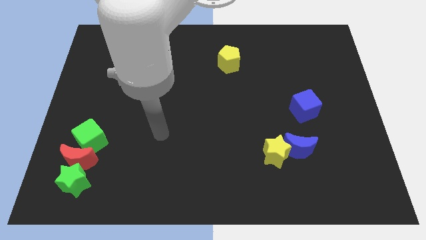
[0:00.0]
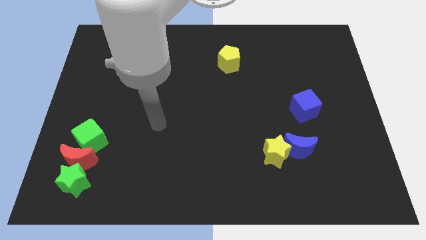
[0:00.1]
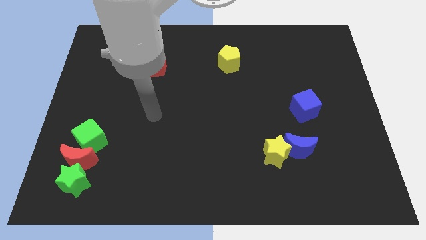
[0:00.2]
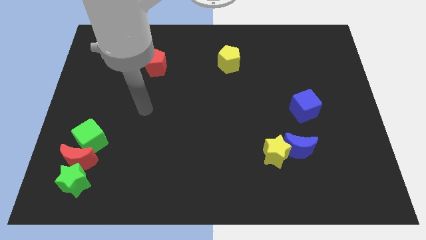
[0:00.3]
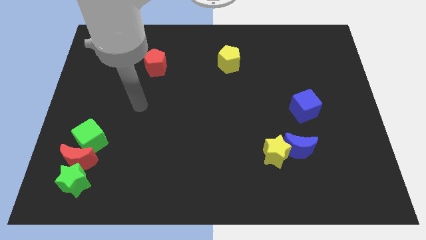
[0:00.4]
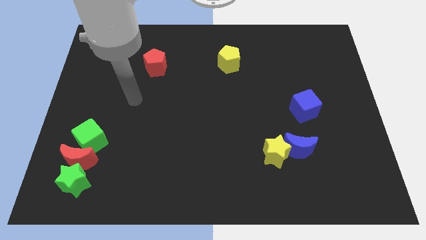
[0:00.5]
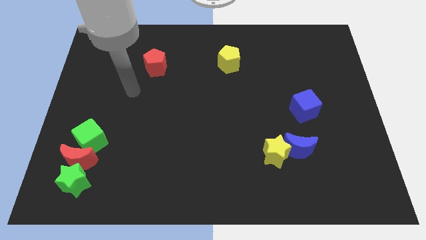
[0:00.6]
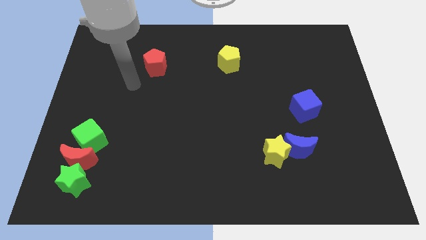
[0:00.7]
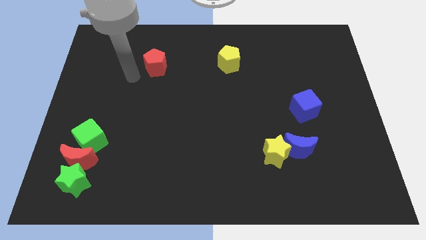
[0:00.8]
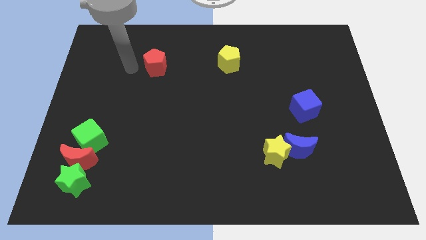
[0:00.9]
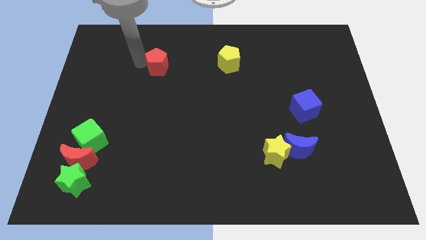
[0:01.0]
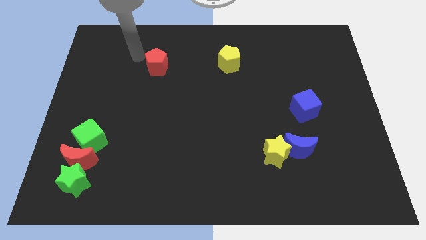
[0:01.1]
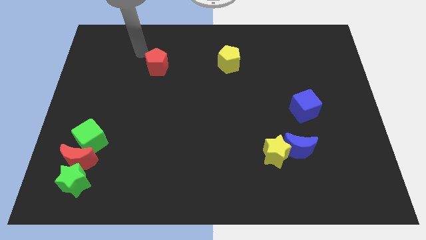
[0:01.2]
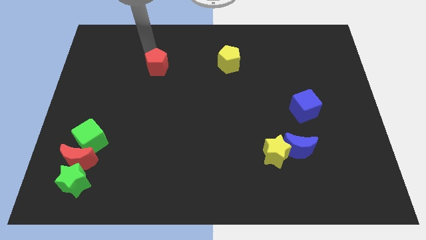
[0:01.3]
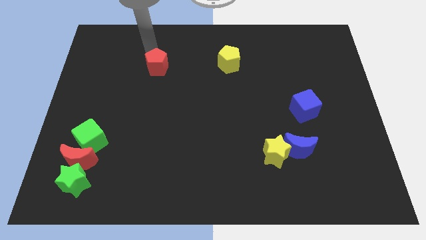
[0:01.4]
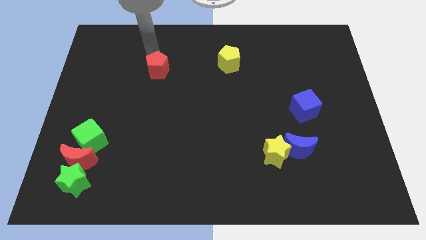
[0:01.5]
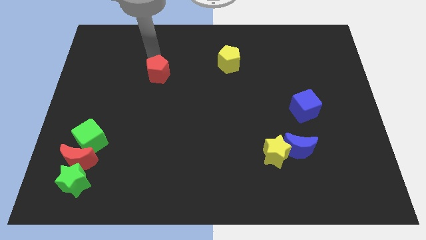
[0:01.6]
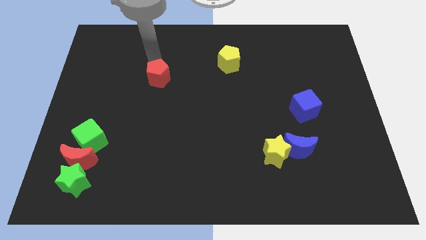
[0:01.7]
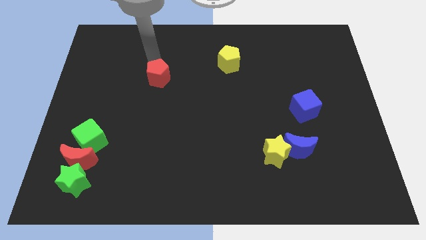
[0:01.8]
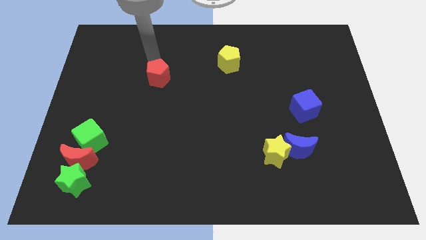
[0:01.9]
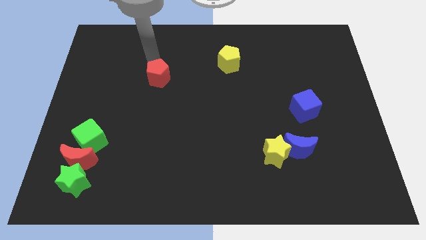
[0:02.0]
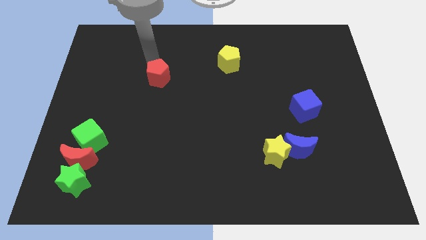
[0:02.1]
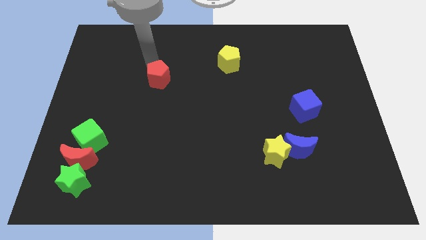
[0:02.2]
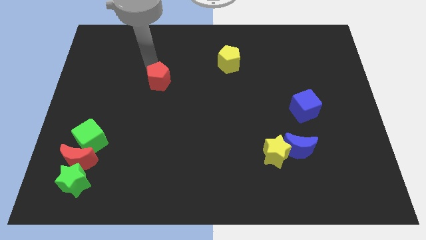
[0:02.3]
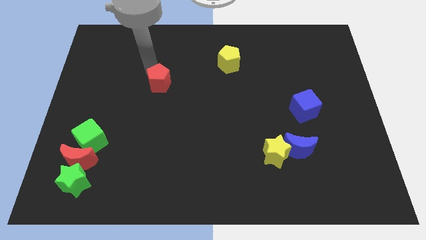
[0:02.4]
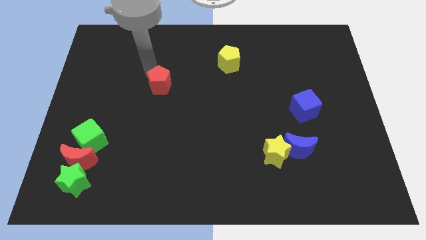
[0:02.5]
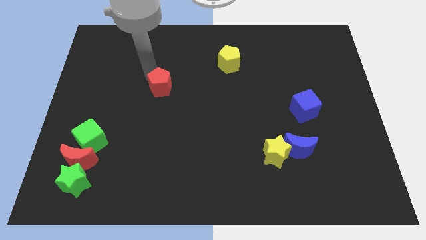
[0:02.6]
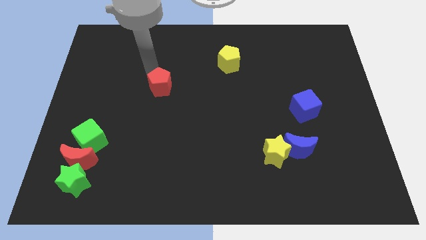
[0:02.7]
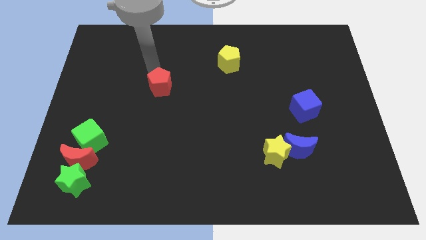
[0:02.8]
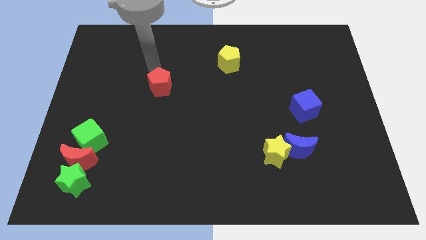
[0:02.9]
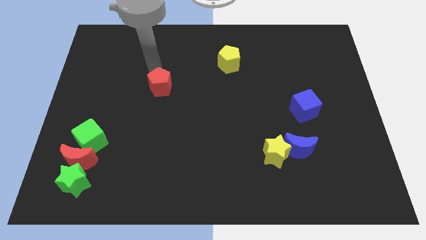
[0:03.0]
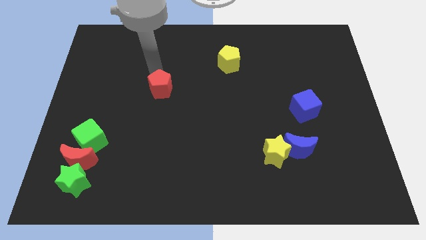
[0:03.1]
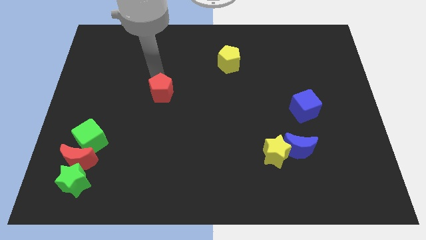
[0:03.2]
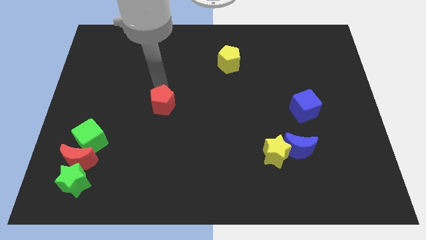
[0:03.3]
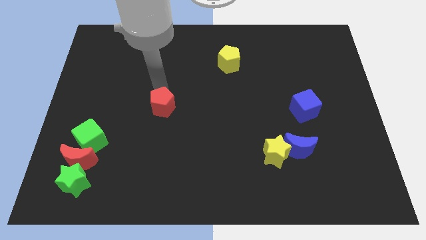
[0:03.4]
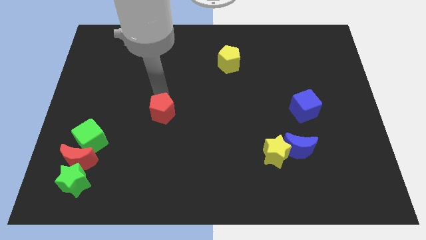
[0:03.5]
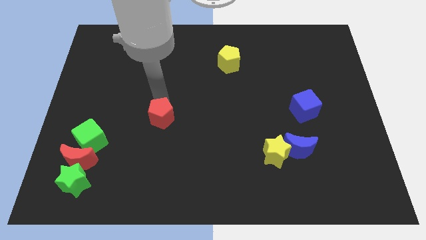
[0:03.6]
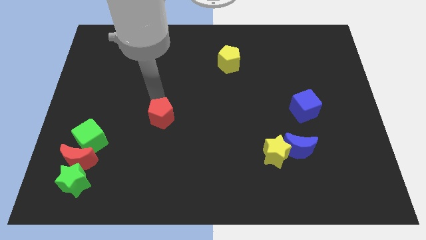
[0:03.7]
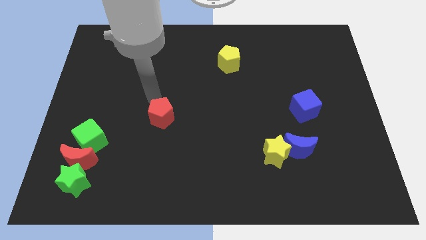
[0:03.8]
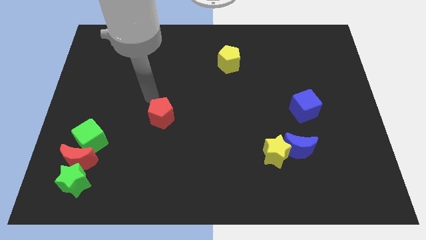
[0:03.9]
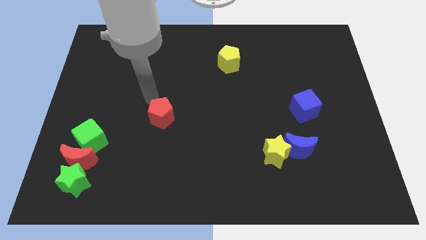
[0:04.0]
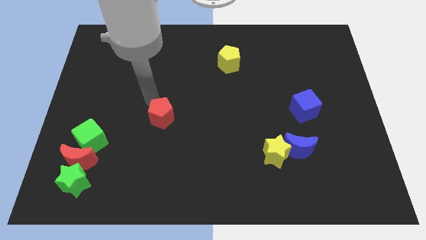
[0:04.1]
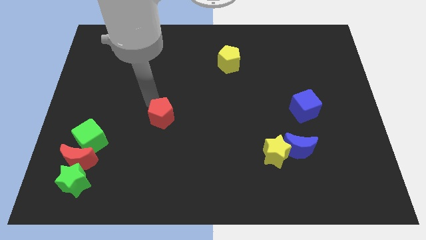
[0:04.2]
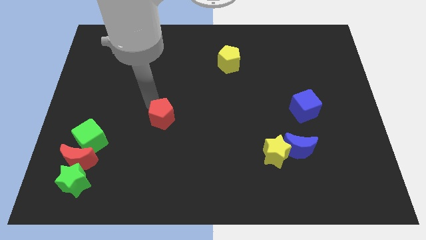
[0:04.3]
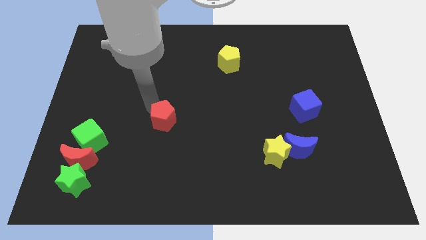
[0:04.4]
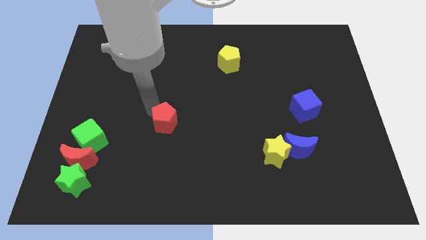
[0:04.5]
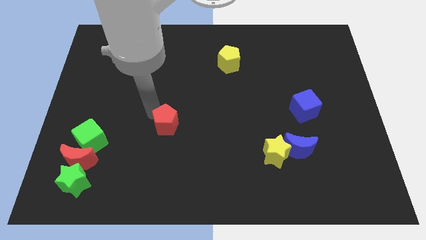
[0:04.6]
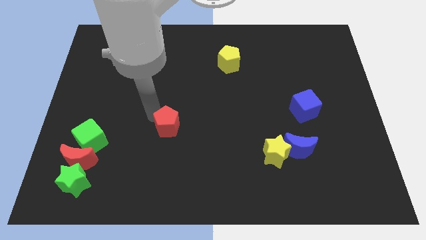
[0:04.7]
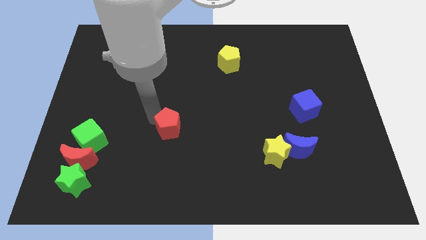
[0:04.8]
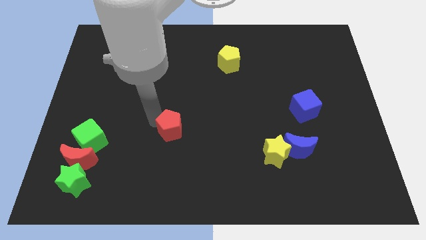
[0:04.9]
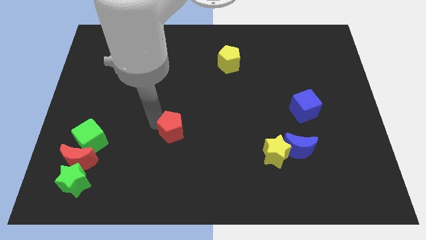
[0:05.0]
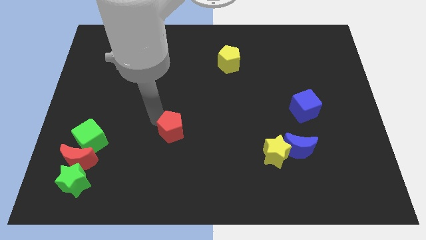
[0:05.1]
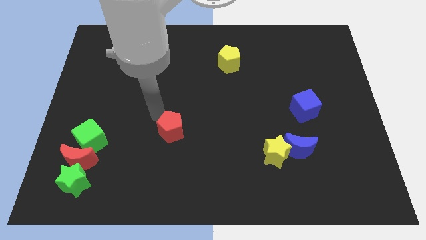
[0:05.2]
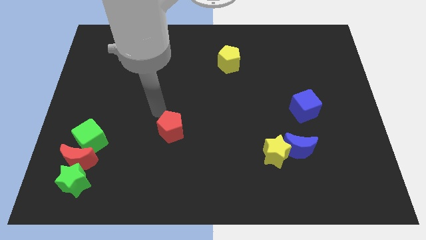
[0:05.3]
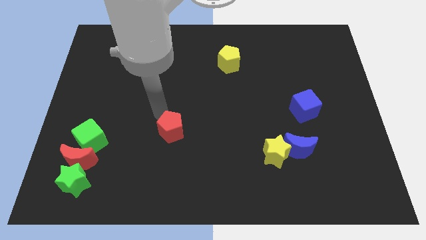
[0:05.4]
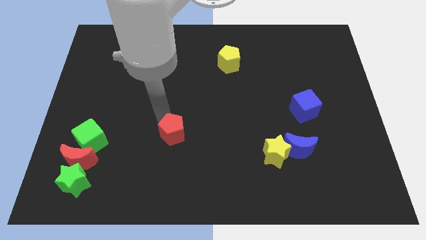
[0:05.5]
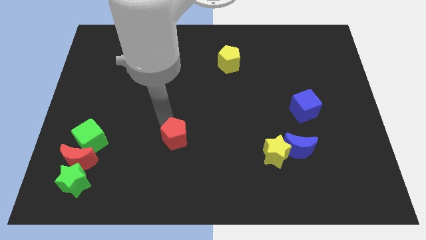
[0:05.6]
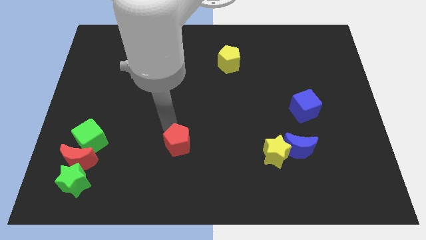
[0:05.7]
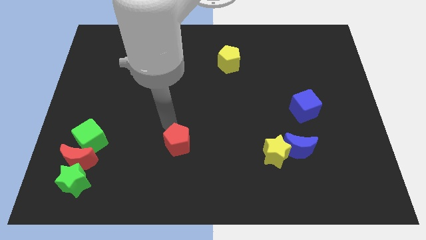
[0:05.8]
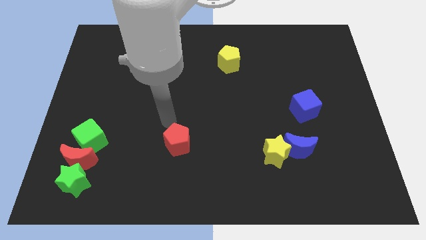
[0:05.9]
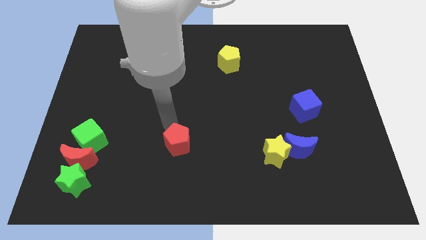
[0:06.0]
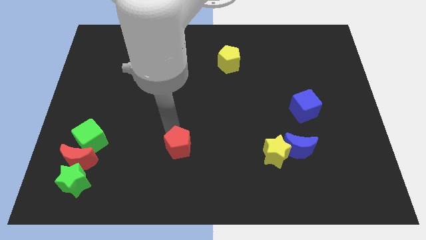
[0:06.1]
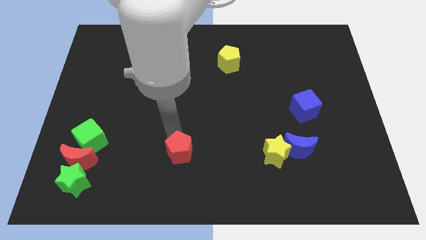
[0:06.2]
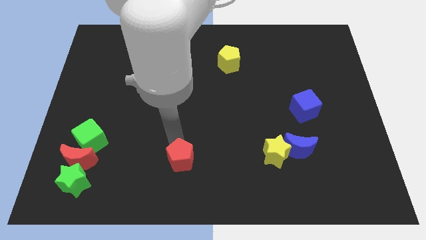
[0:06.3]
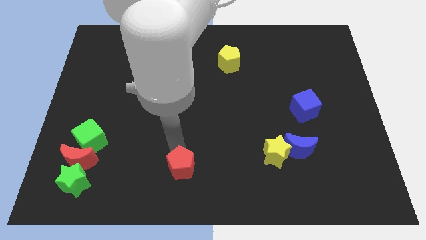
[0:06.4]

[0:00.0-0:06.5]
push the red pentagon to the bottom side
